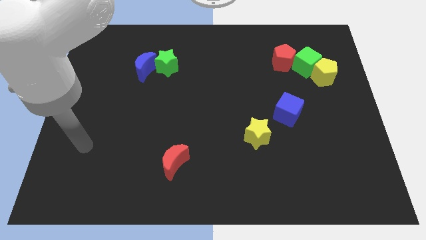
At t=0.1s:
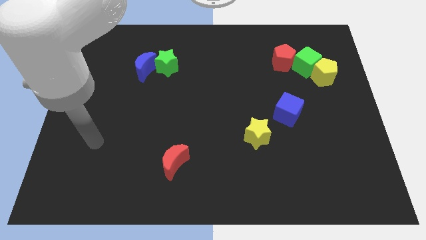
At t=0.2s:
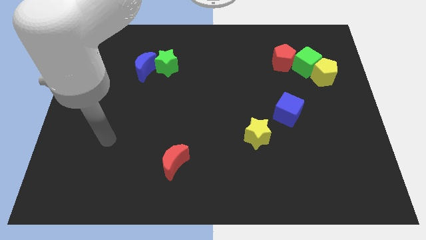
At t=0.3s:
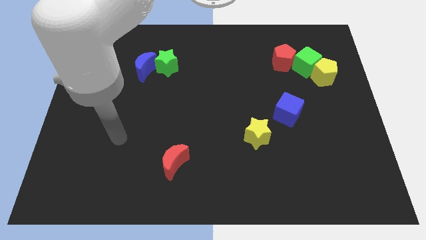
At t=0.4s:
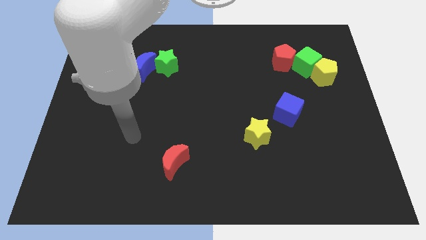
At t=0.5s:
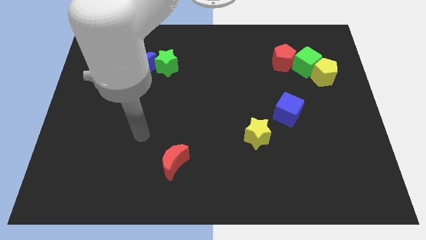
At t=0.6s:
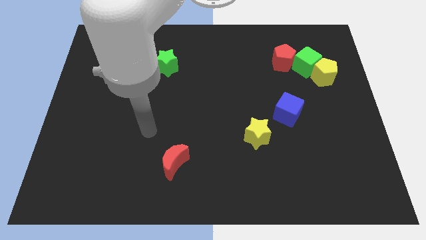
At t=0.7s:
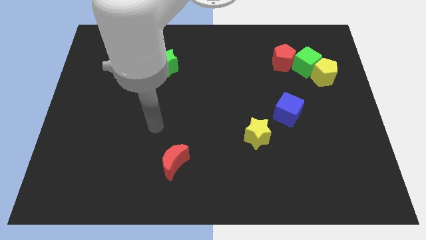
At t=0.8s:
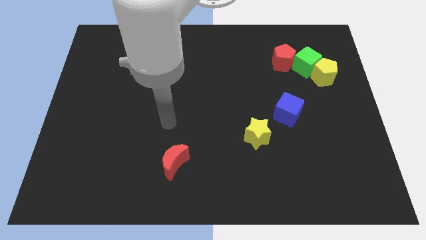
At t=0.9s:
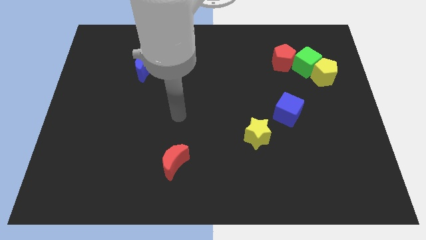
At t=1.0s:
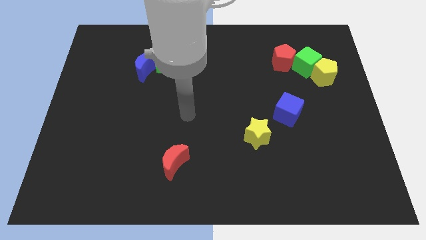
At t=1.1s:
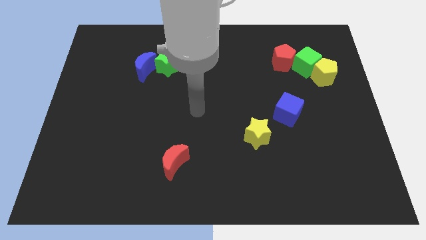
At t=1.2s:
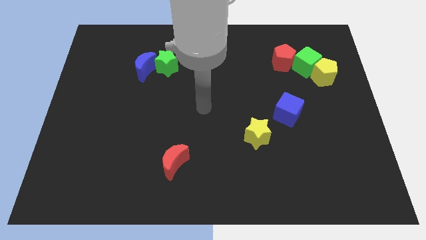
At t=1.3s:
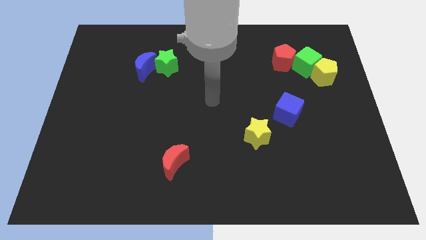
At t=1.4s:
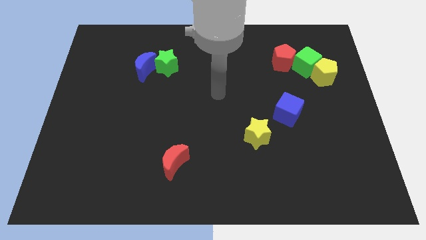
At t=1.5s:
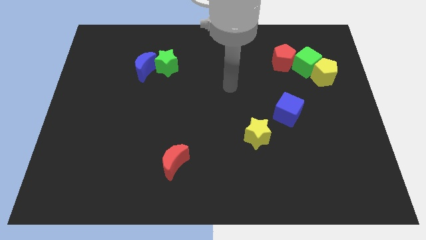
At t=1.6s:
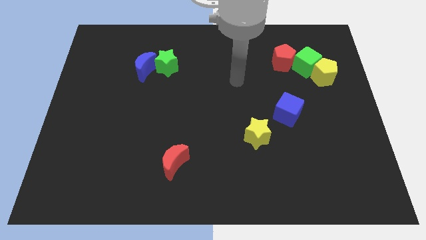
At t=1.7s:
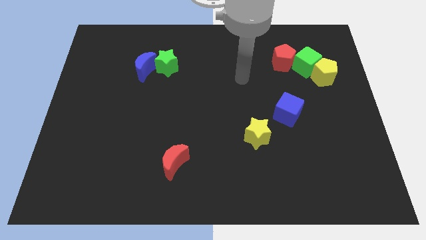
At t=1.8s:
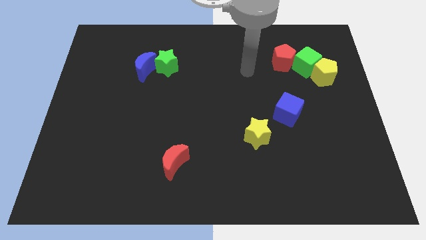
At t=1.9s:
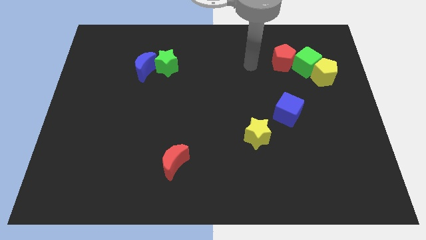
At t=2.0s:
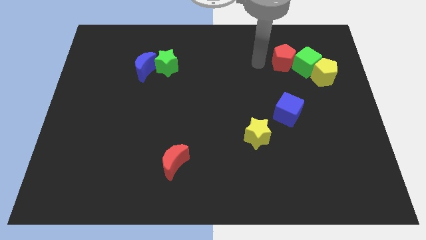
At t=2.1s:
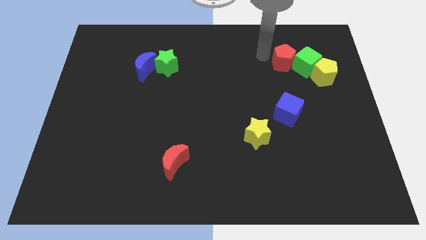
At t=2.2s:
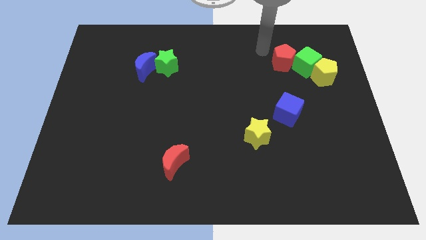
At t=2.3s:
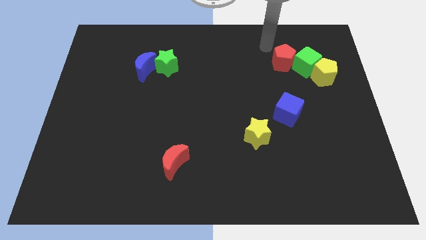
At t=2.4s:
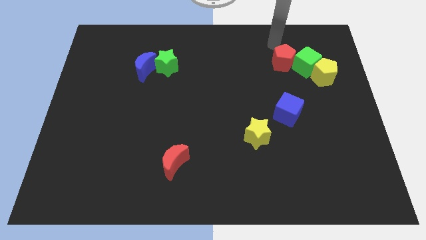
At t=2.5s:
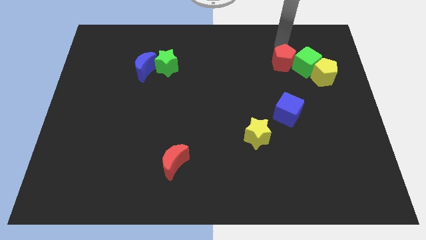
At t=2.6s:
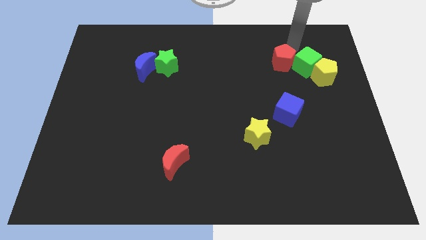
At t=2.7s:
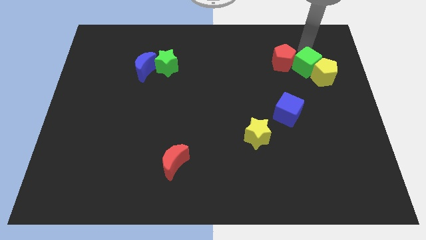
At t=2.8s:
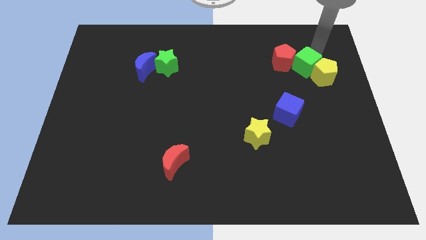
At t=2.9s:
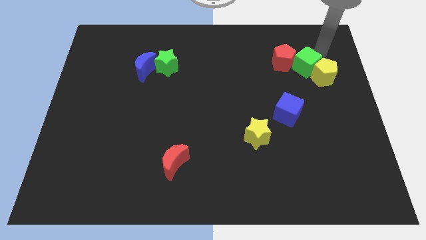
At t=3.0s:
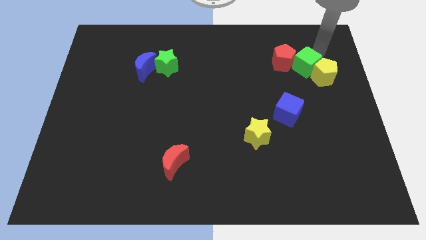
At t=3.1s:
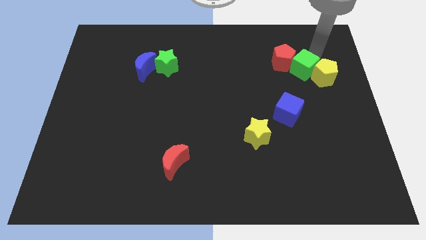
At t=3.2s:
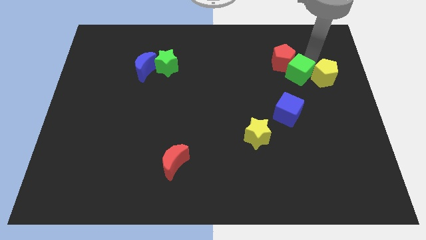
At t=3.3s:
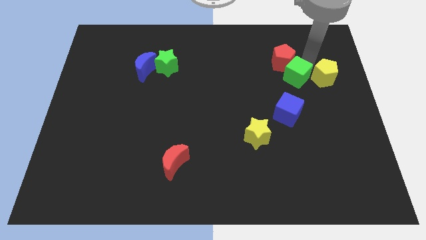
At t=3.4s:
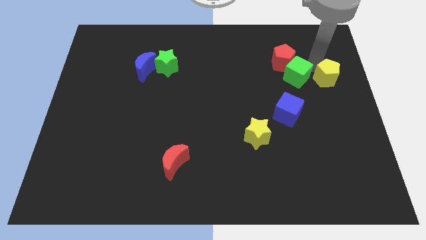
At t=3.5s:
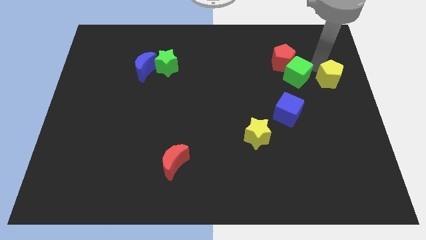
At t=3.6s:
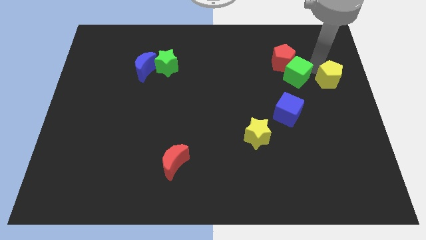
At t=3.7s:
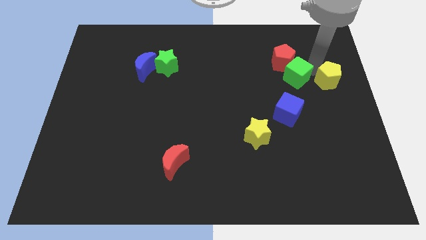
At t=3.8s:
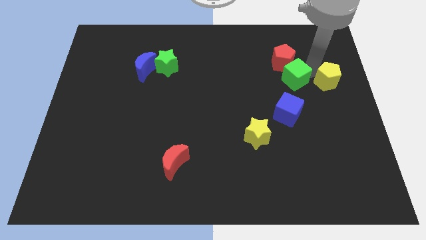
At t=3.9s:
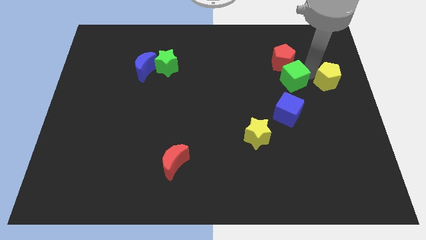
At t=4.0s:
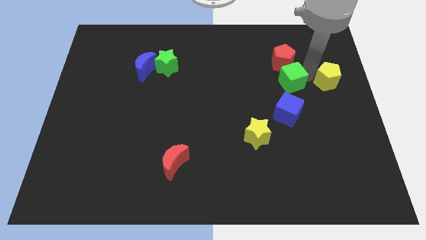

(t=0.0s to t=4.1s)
push the green cube down and left slightly

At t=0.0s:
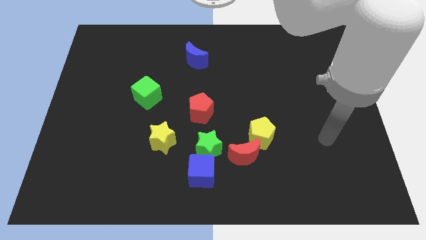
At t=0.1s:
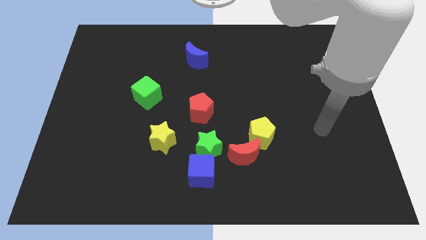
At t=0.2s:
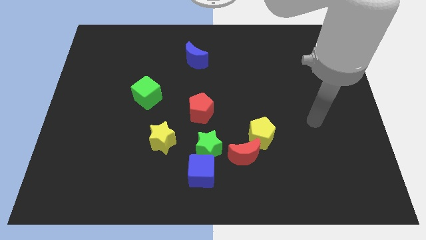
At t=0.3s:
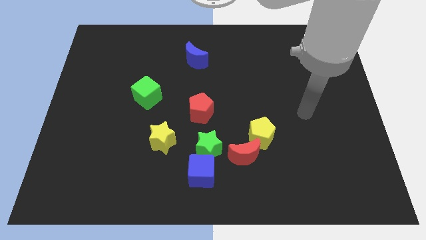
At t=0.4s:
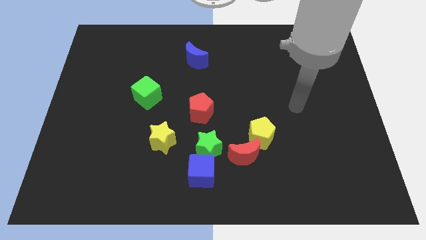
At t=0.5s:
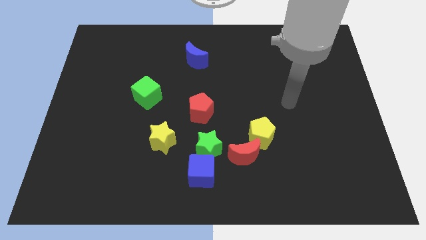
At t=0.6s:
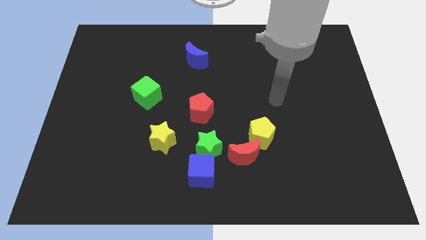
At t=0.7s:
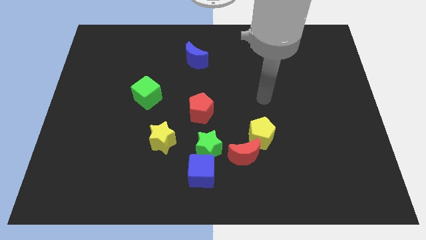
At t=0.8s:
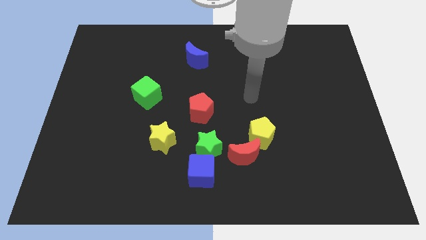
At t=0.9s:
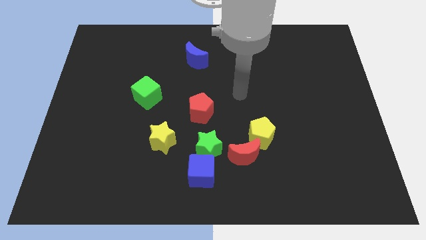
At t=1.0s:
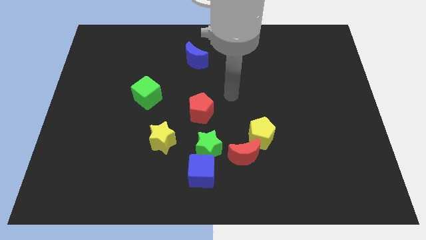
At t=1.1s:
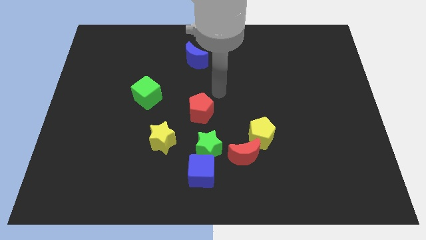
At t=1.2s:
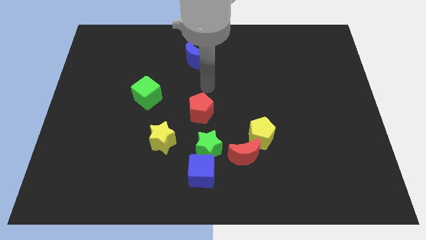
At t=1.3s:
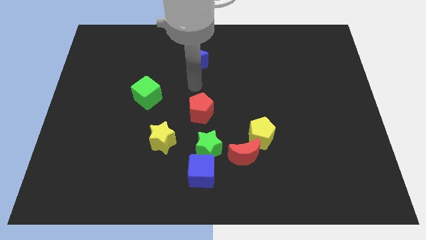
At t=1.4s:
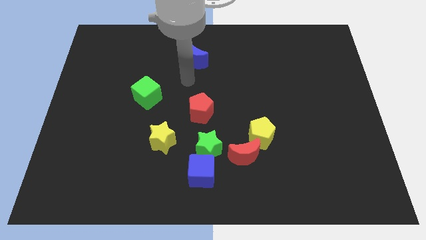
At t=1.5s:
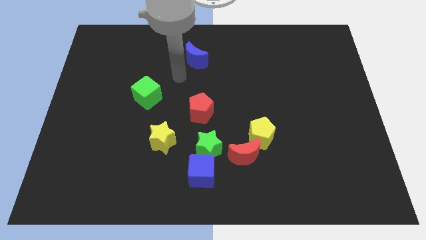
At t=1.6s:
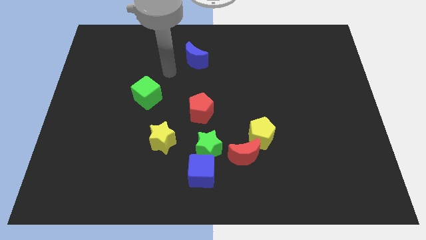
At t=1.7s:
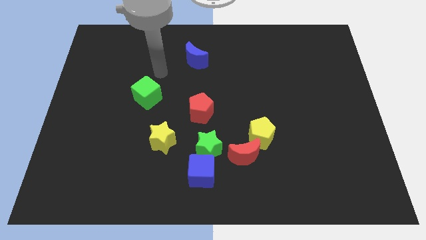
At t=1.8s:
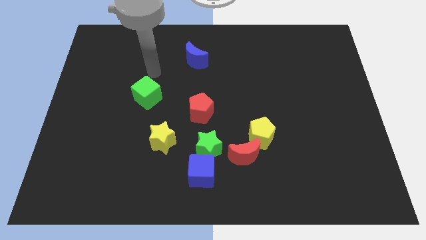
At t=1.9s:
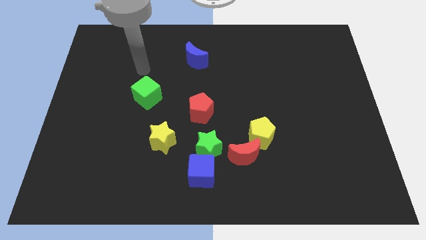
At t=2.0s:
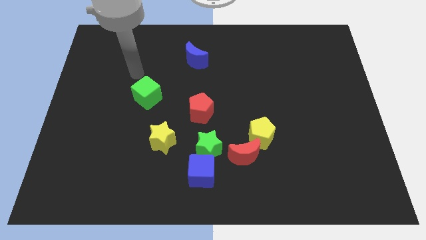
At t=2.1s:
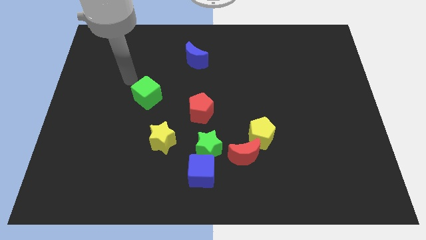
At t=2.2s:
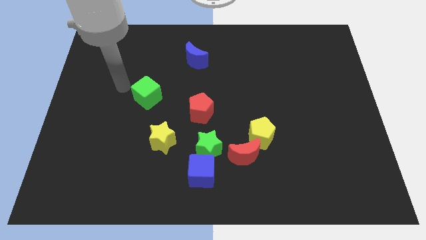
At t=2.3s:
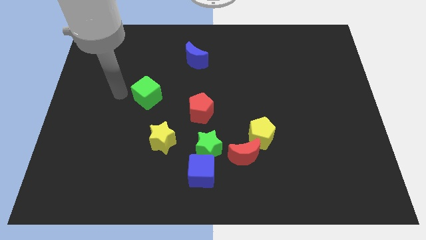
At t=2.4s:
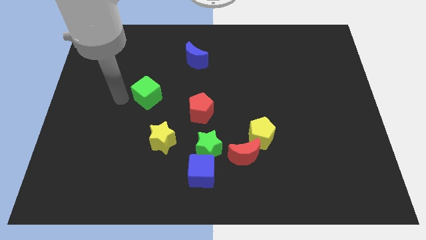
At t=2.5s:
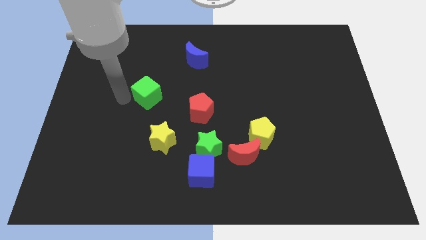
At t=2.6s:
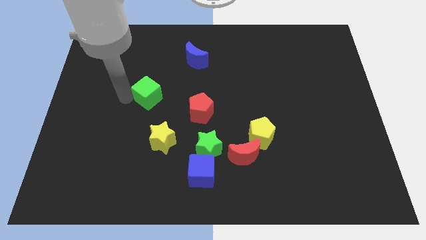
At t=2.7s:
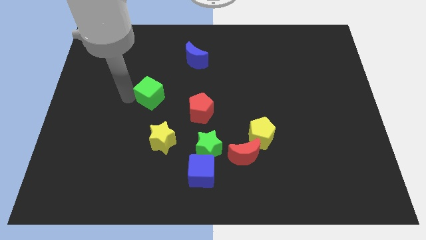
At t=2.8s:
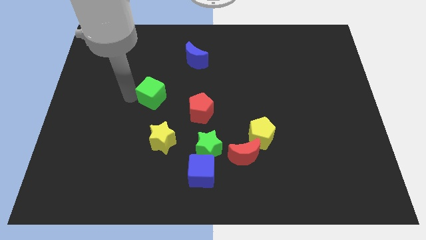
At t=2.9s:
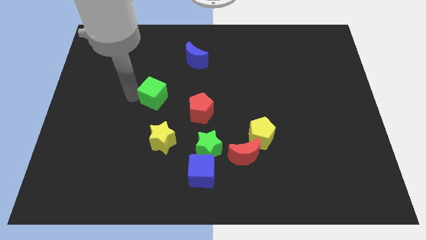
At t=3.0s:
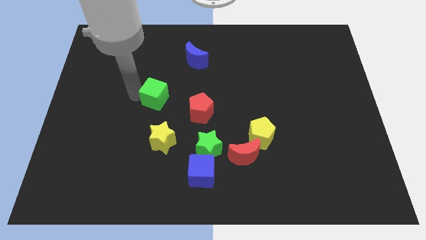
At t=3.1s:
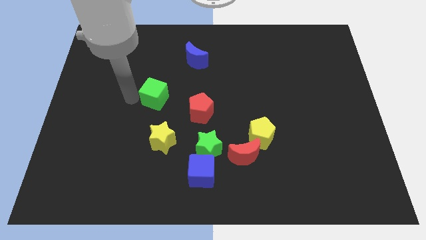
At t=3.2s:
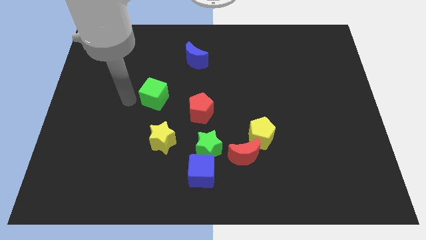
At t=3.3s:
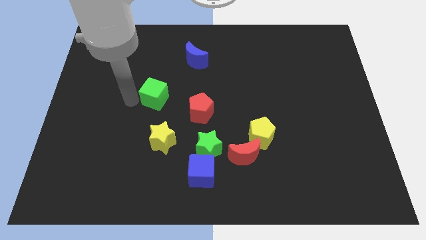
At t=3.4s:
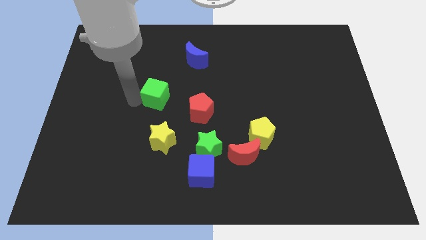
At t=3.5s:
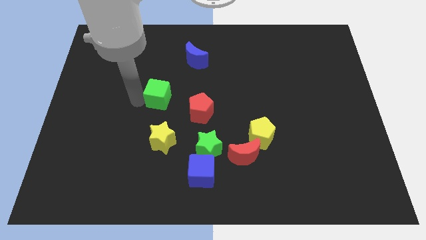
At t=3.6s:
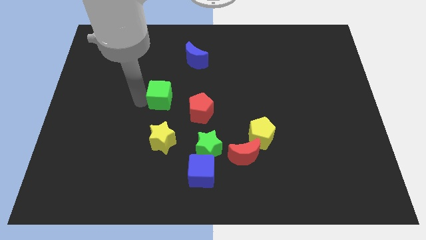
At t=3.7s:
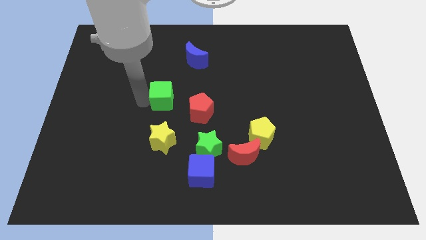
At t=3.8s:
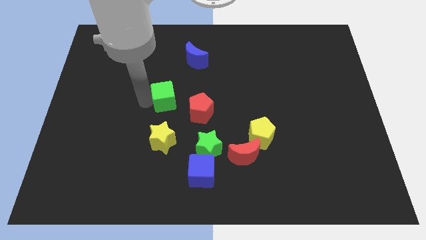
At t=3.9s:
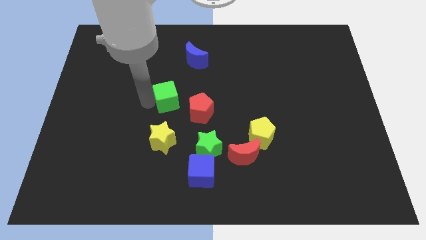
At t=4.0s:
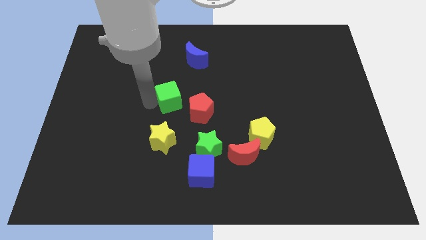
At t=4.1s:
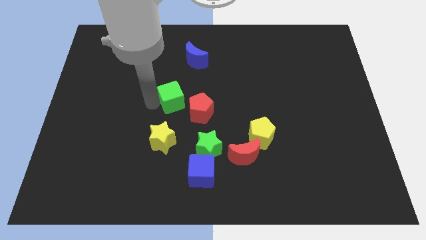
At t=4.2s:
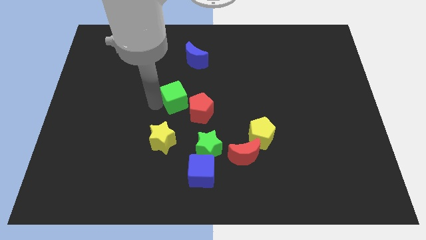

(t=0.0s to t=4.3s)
move the green cube to the right a little bit
